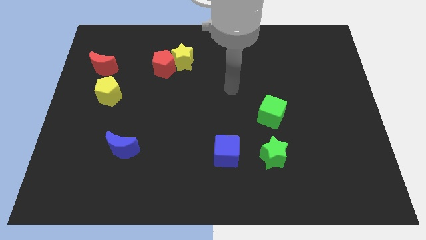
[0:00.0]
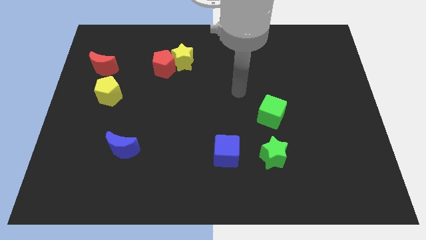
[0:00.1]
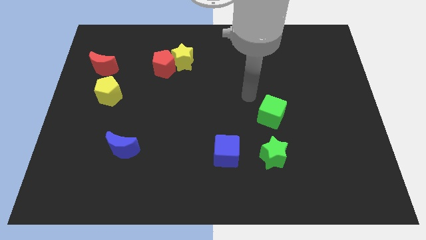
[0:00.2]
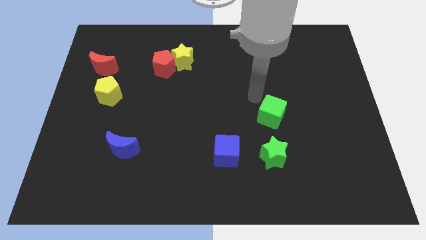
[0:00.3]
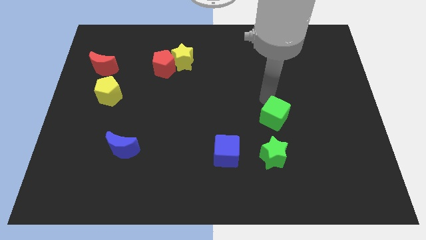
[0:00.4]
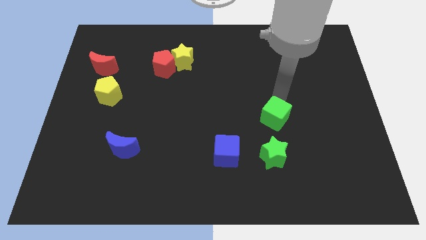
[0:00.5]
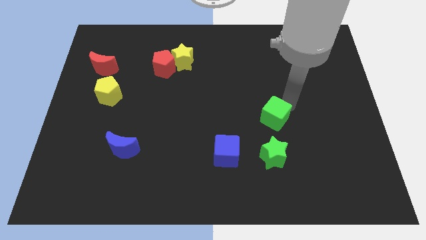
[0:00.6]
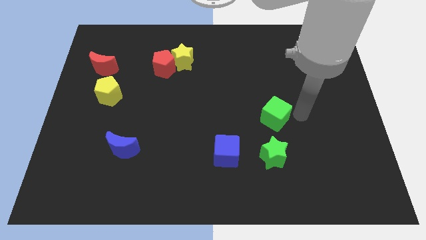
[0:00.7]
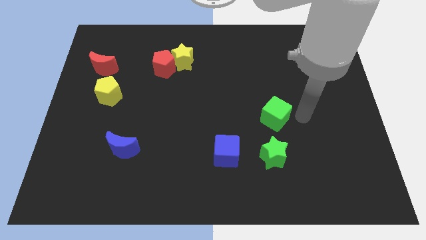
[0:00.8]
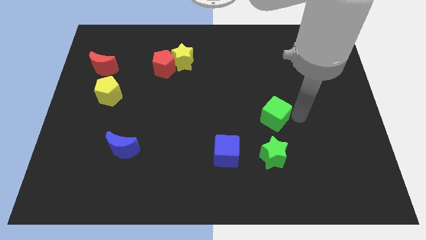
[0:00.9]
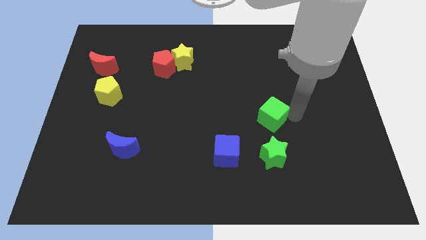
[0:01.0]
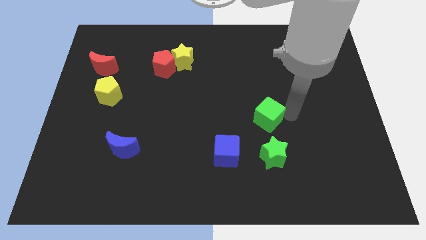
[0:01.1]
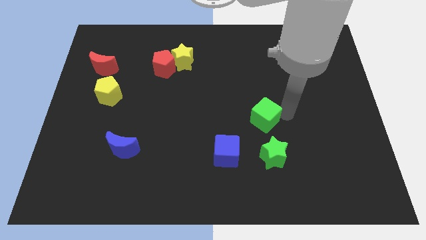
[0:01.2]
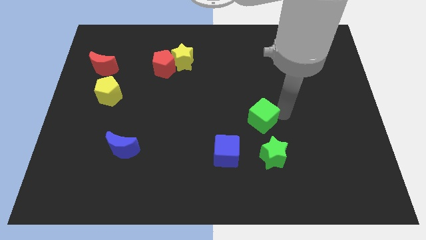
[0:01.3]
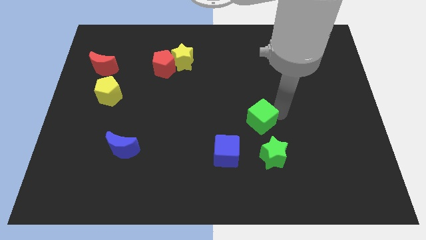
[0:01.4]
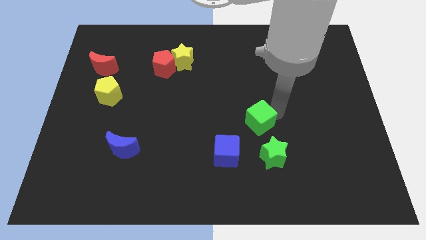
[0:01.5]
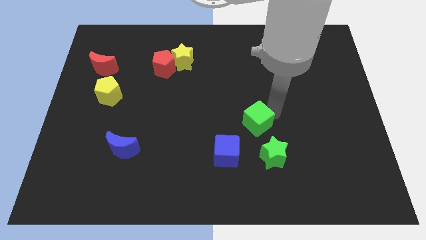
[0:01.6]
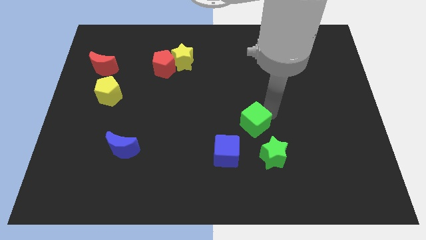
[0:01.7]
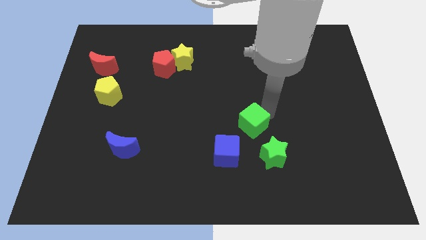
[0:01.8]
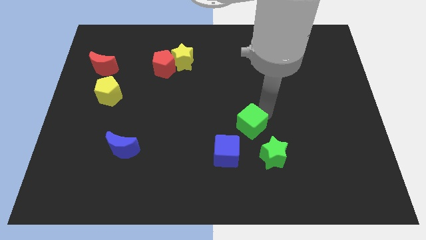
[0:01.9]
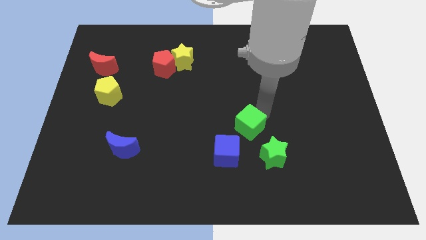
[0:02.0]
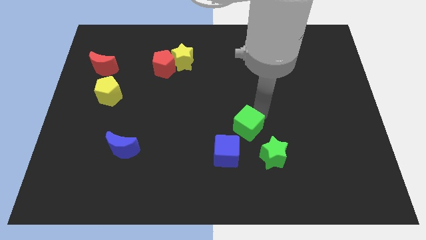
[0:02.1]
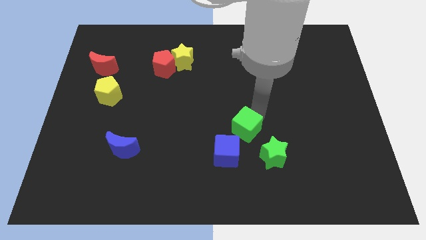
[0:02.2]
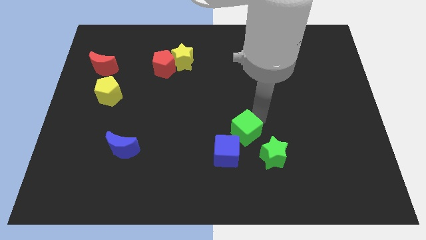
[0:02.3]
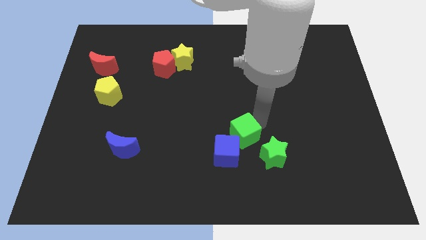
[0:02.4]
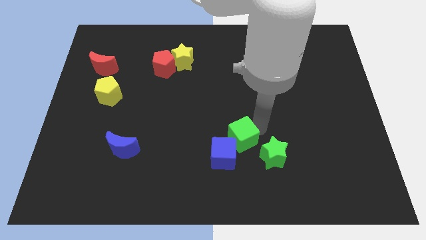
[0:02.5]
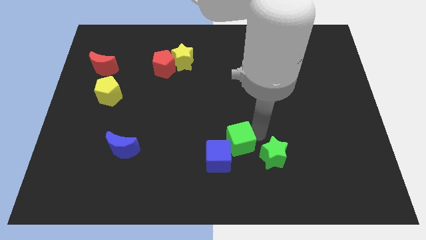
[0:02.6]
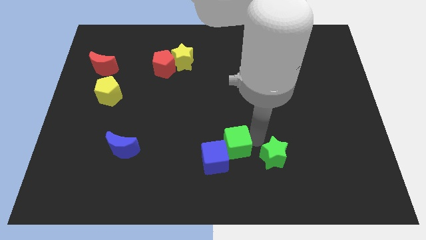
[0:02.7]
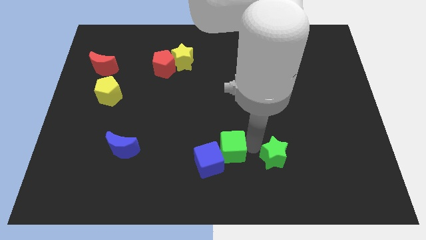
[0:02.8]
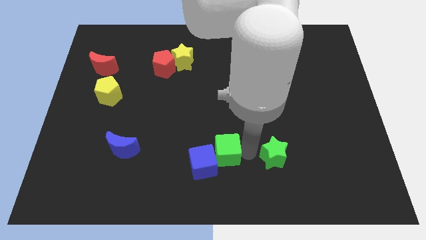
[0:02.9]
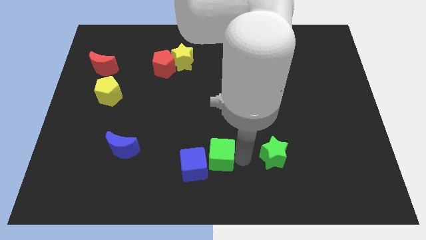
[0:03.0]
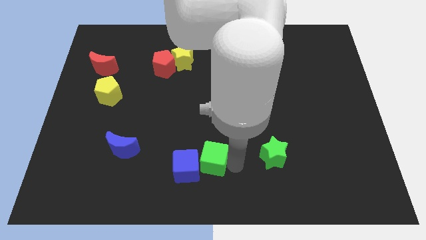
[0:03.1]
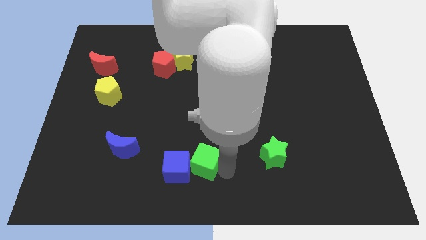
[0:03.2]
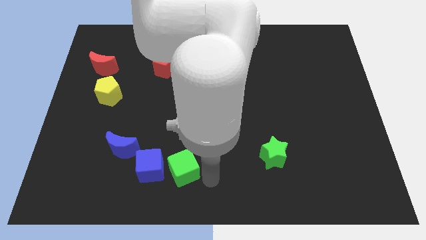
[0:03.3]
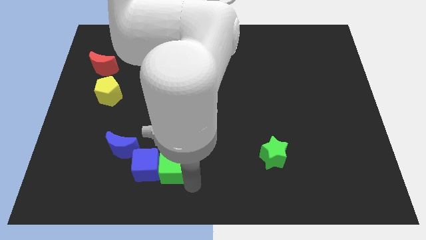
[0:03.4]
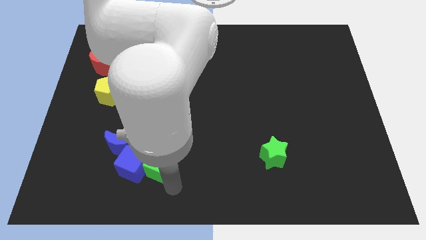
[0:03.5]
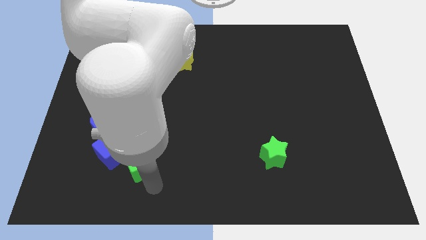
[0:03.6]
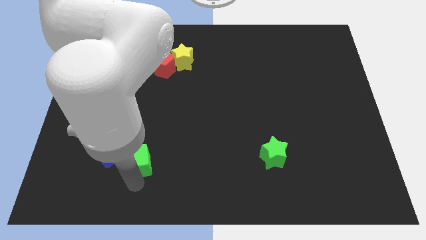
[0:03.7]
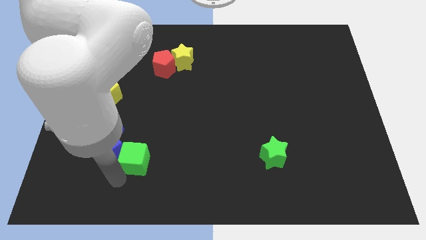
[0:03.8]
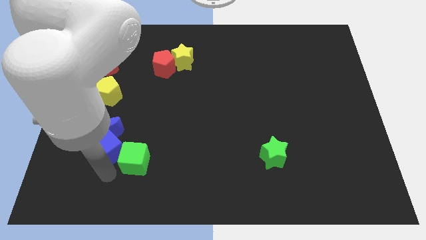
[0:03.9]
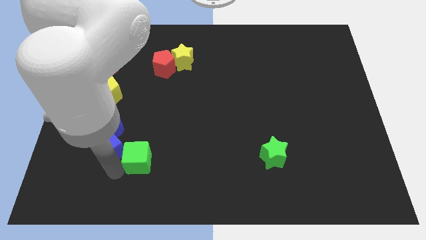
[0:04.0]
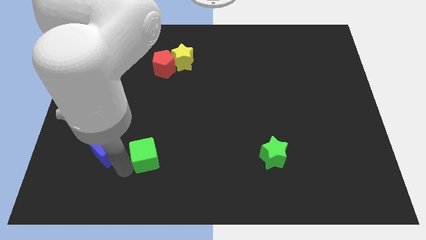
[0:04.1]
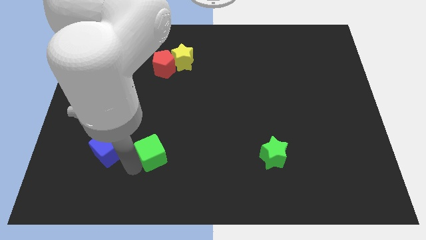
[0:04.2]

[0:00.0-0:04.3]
push the green cube slightly left

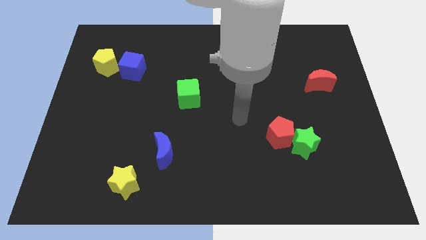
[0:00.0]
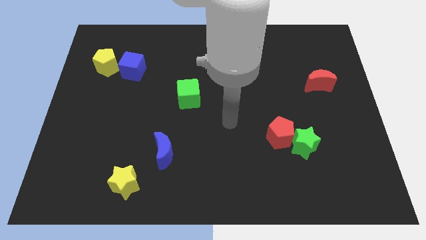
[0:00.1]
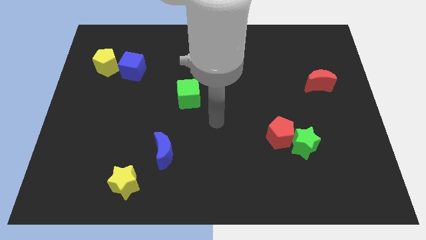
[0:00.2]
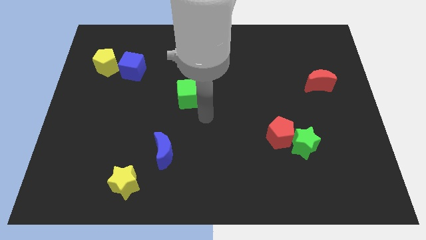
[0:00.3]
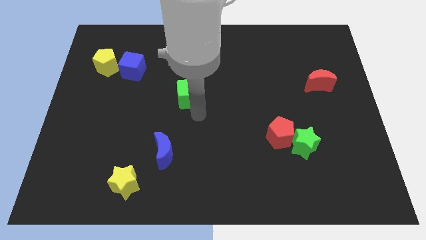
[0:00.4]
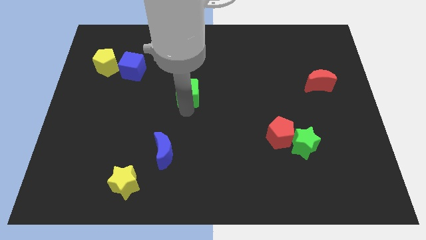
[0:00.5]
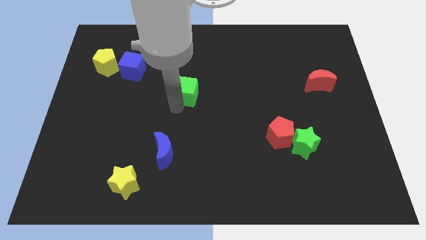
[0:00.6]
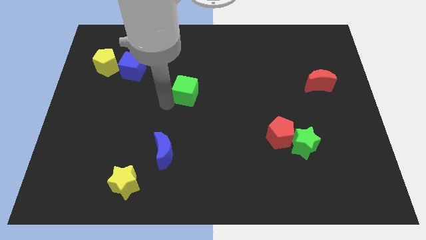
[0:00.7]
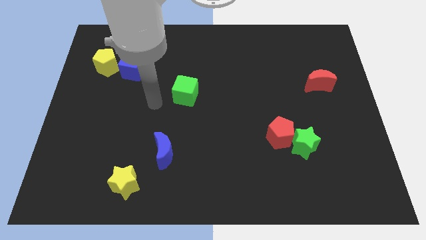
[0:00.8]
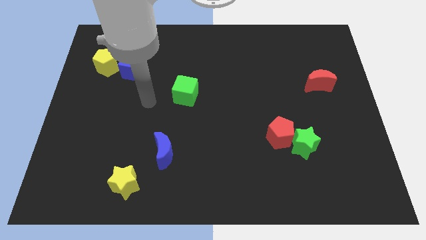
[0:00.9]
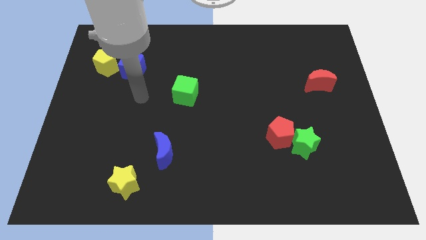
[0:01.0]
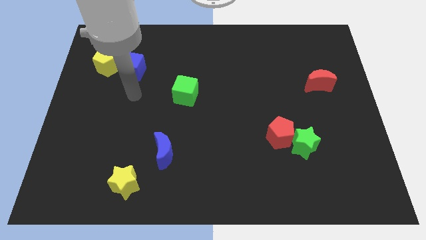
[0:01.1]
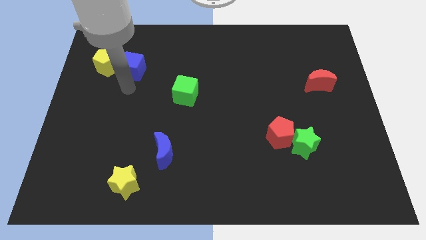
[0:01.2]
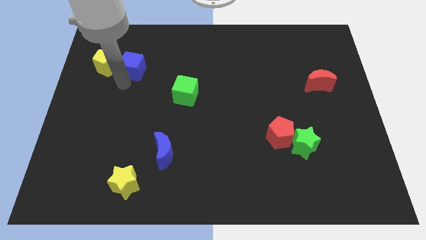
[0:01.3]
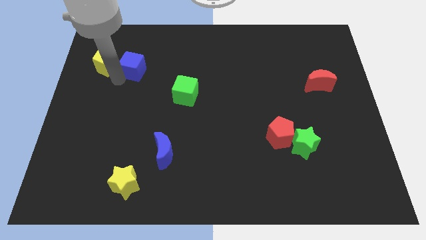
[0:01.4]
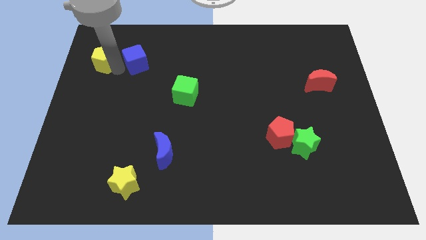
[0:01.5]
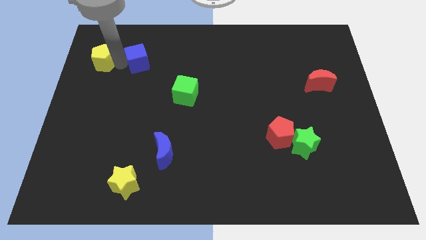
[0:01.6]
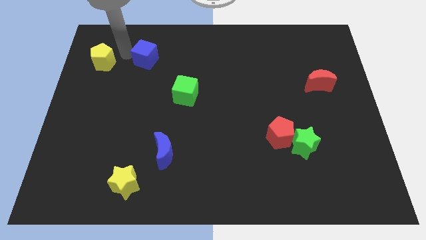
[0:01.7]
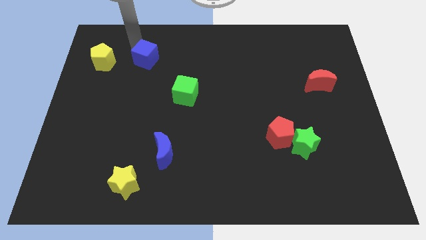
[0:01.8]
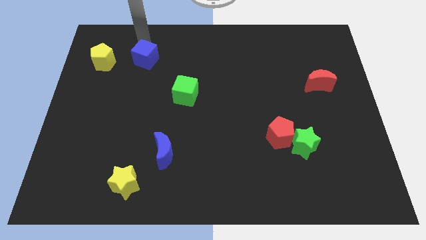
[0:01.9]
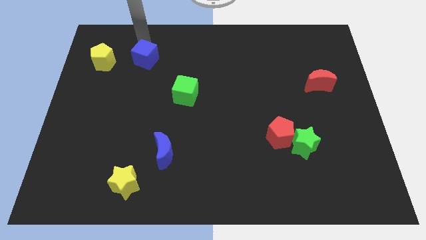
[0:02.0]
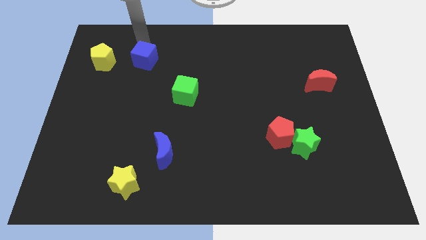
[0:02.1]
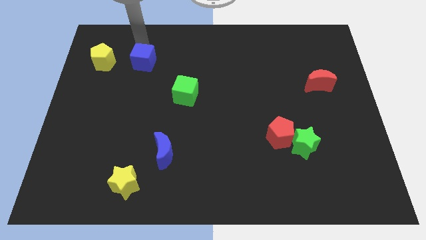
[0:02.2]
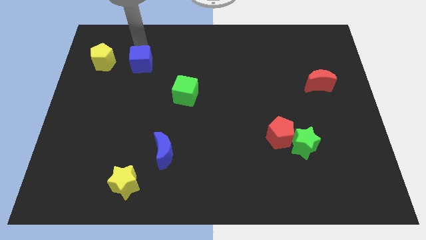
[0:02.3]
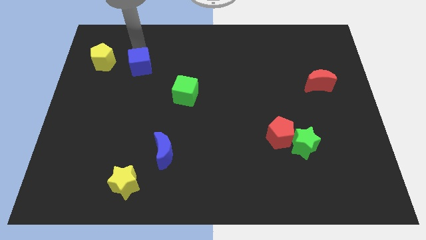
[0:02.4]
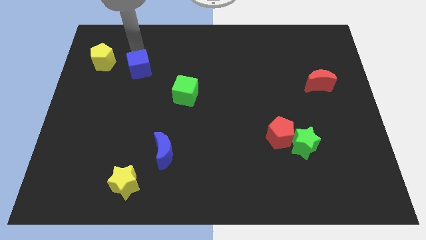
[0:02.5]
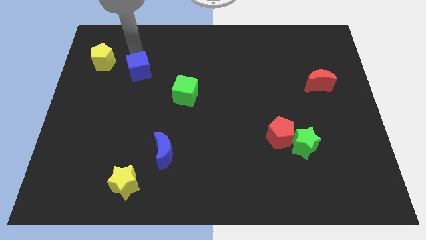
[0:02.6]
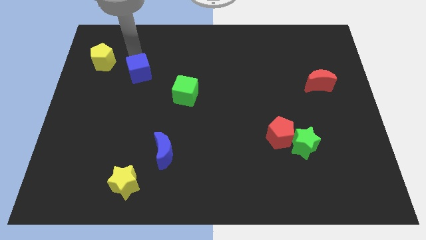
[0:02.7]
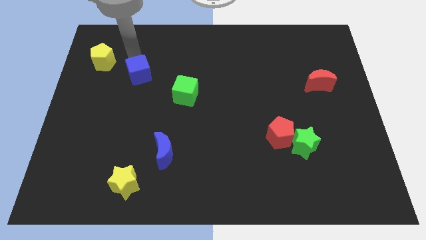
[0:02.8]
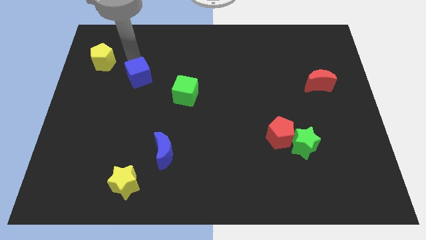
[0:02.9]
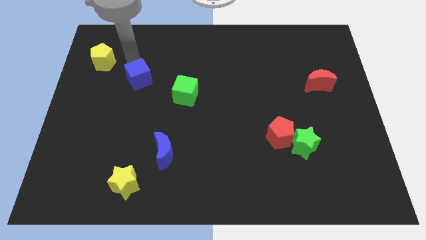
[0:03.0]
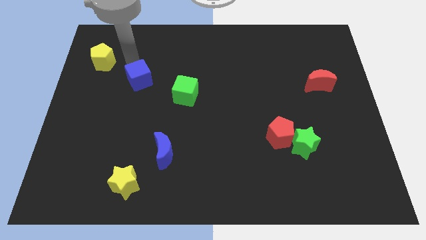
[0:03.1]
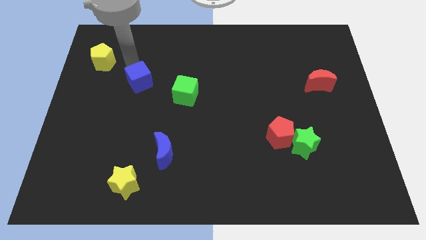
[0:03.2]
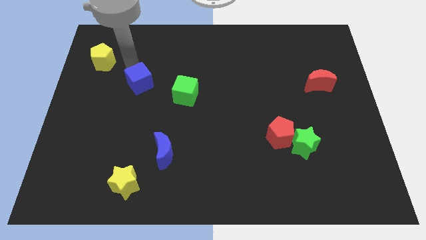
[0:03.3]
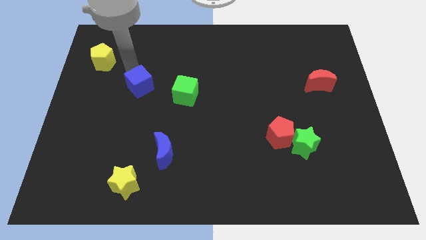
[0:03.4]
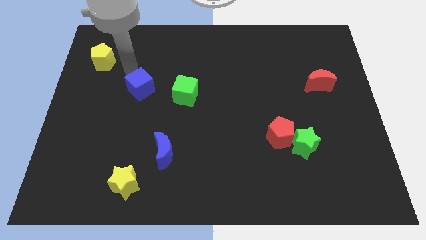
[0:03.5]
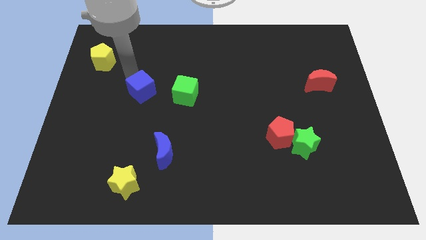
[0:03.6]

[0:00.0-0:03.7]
slightly push the blue cube down and to the right
